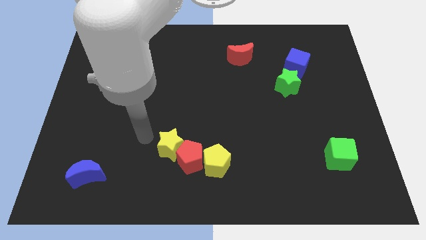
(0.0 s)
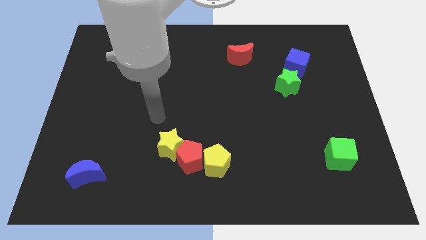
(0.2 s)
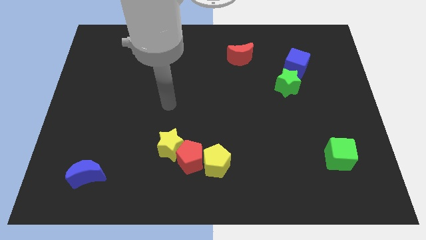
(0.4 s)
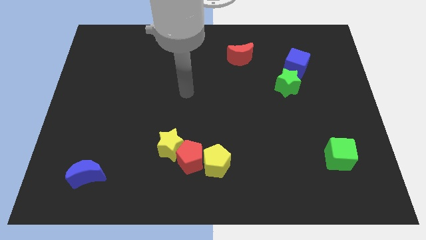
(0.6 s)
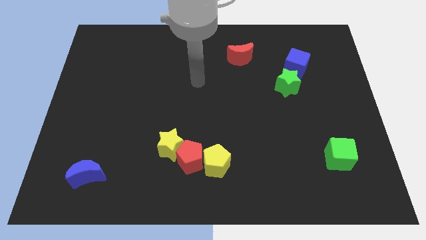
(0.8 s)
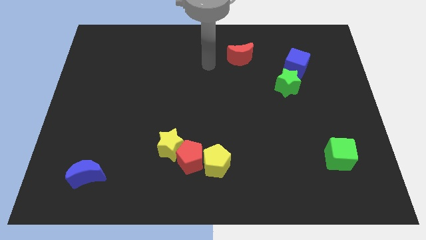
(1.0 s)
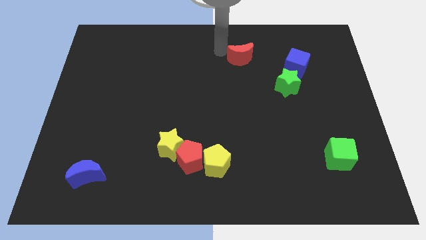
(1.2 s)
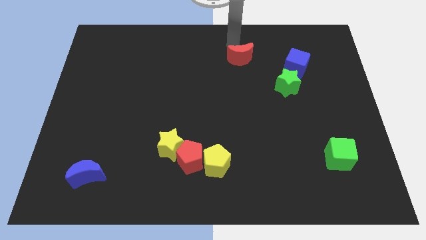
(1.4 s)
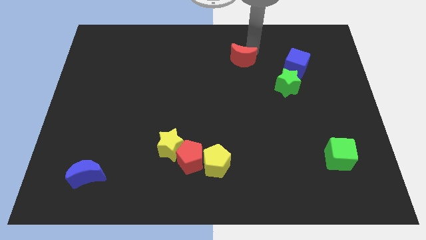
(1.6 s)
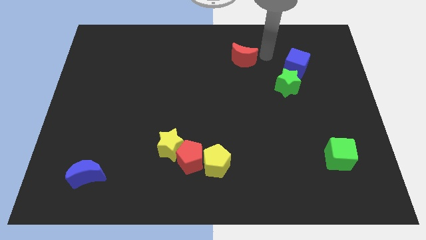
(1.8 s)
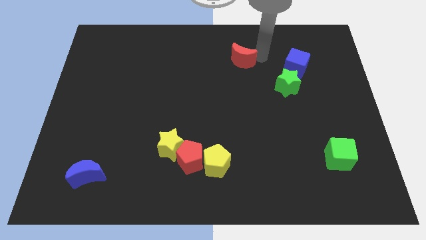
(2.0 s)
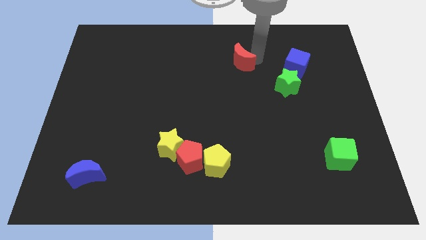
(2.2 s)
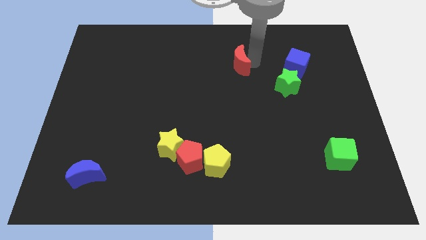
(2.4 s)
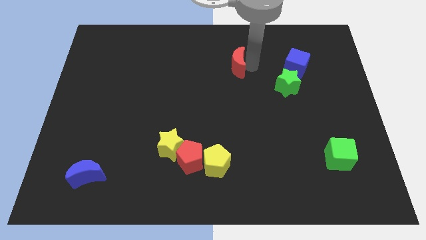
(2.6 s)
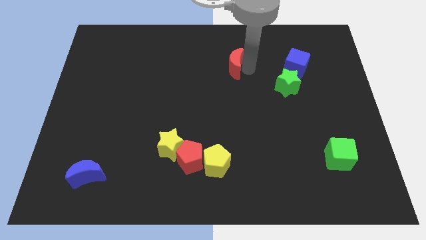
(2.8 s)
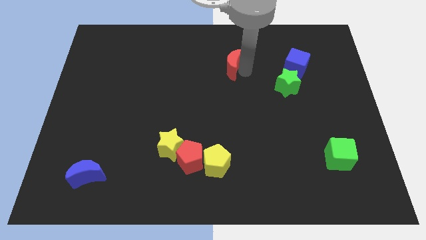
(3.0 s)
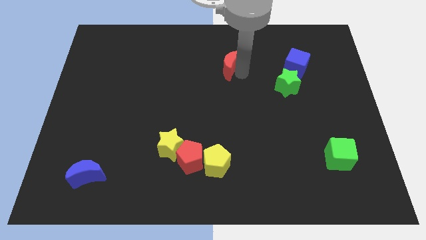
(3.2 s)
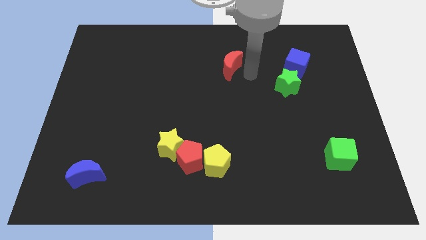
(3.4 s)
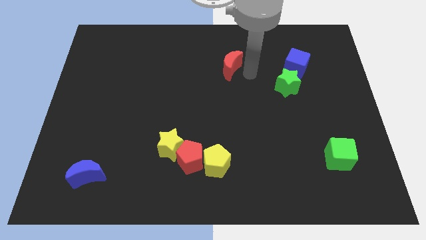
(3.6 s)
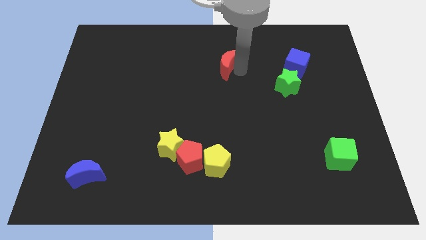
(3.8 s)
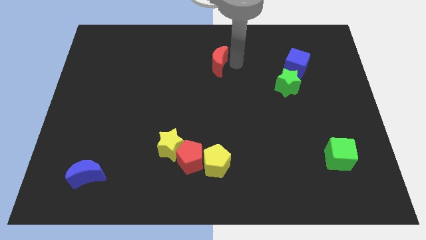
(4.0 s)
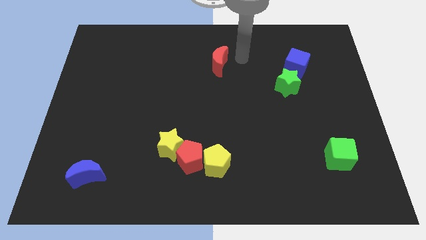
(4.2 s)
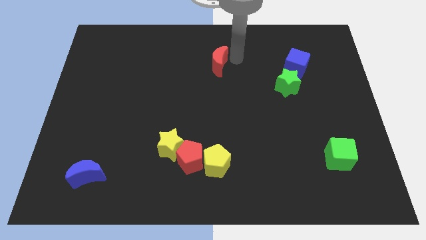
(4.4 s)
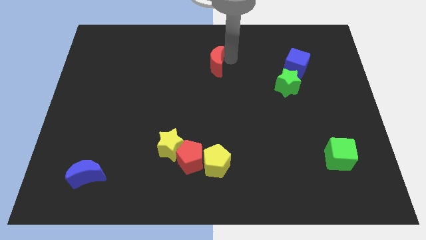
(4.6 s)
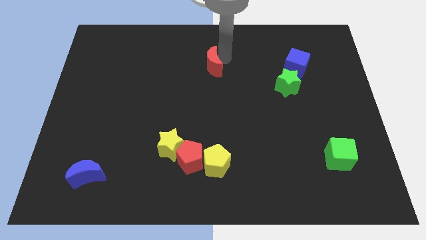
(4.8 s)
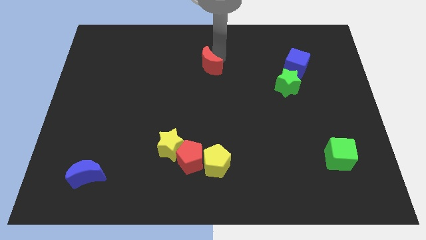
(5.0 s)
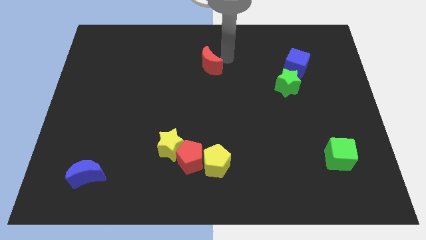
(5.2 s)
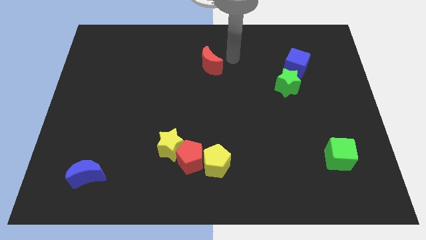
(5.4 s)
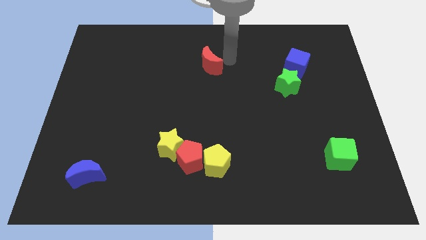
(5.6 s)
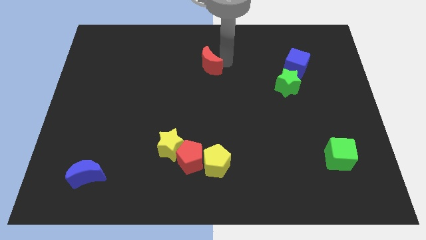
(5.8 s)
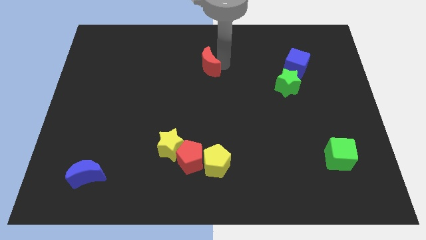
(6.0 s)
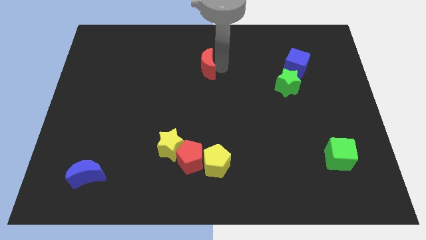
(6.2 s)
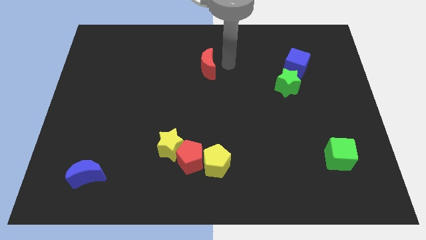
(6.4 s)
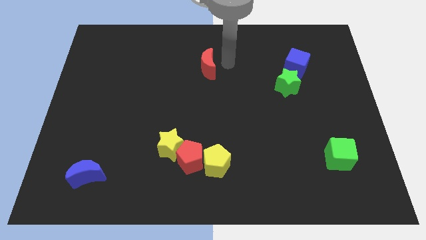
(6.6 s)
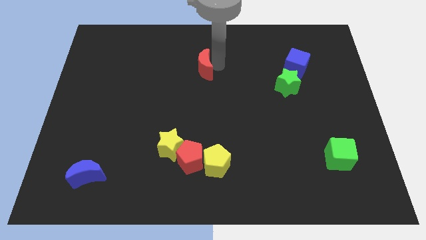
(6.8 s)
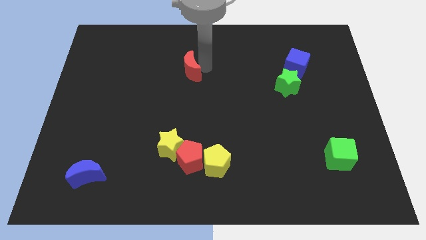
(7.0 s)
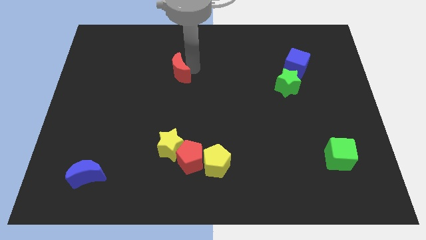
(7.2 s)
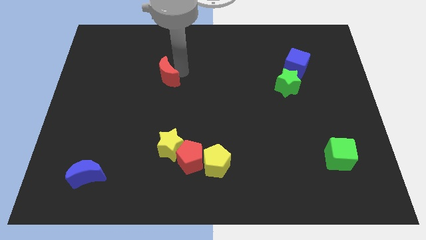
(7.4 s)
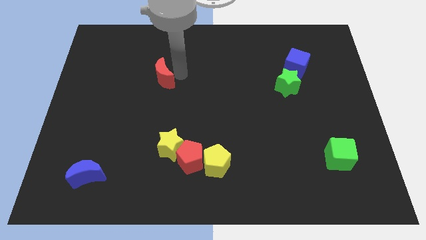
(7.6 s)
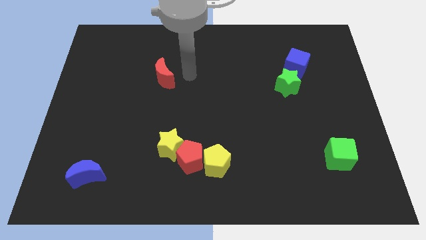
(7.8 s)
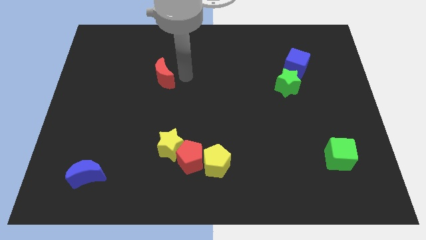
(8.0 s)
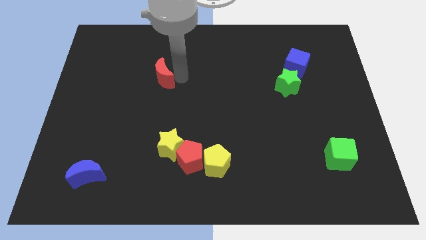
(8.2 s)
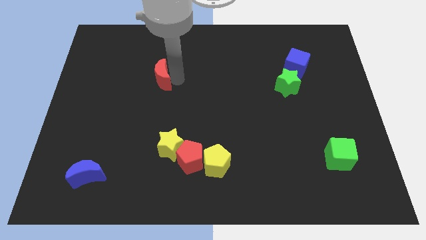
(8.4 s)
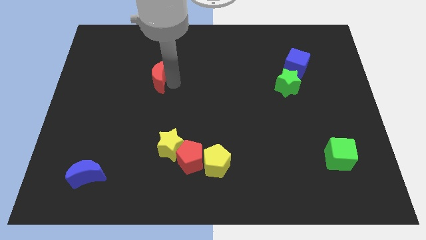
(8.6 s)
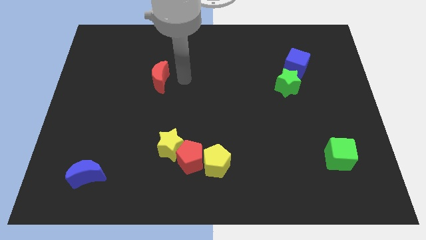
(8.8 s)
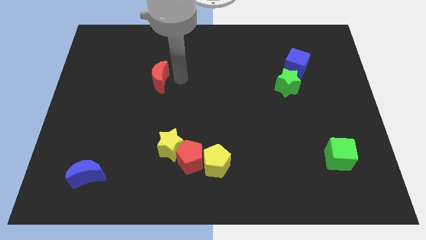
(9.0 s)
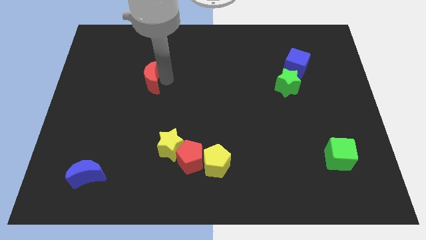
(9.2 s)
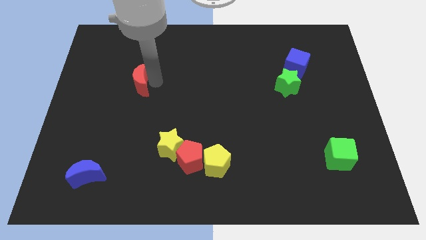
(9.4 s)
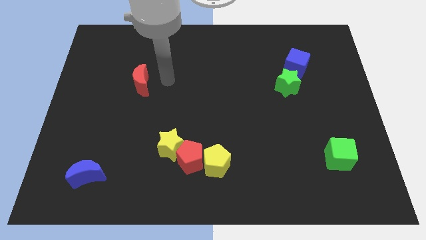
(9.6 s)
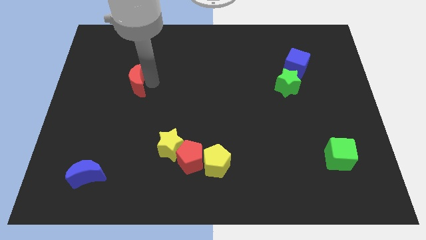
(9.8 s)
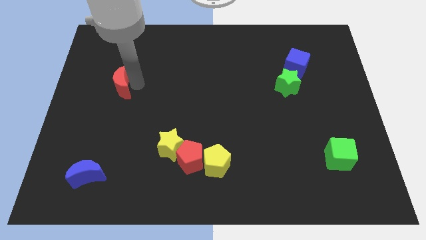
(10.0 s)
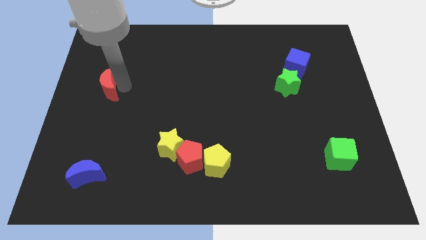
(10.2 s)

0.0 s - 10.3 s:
put the red moon to the center left

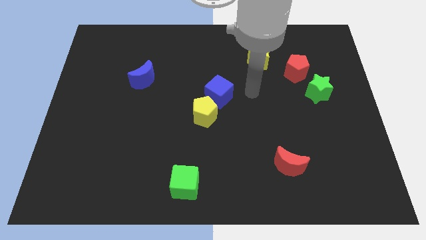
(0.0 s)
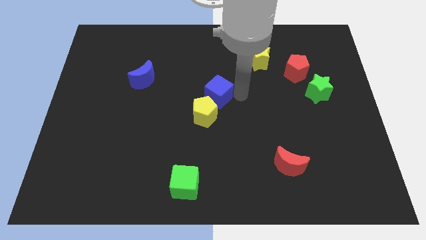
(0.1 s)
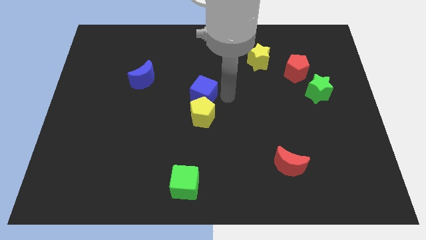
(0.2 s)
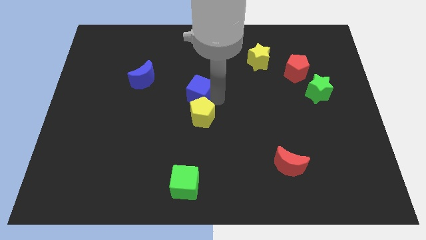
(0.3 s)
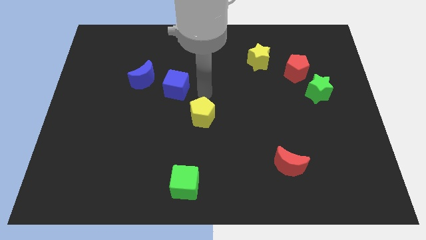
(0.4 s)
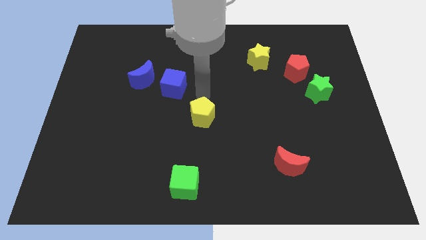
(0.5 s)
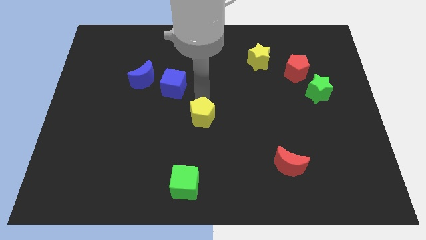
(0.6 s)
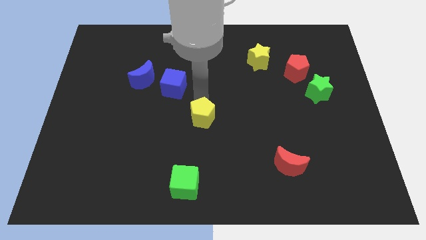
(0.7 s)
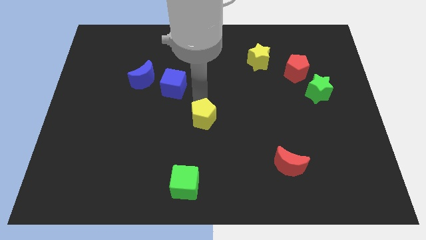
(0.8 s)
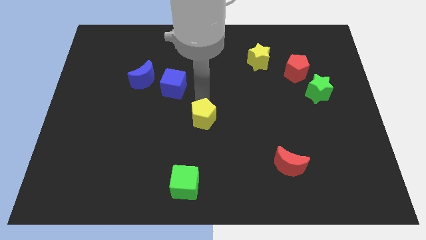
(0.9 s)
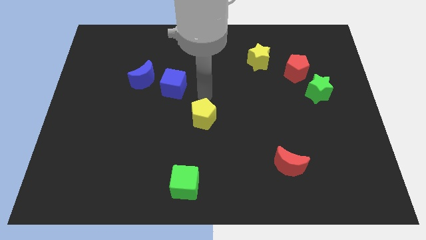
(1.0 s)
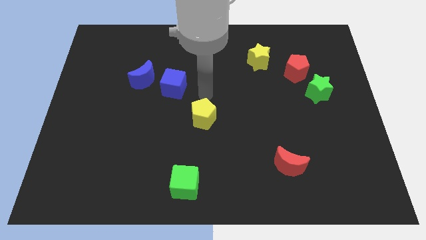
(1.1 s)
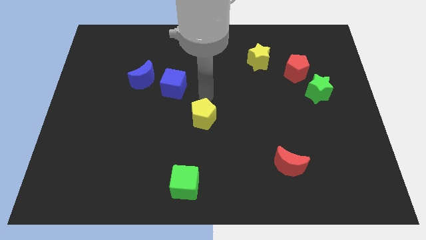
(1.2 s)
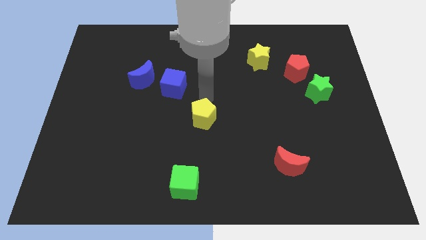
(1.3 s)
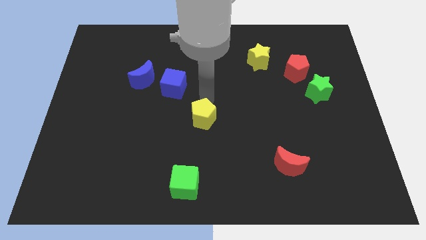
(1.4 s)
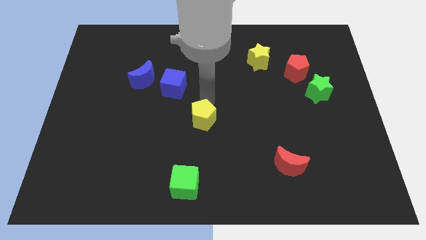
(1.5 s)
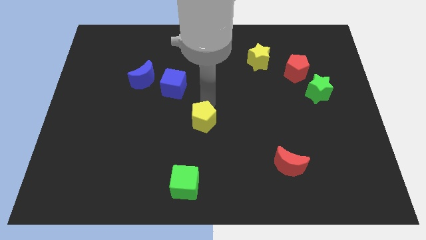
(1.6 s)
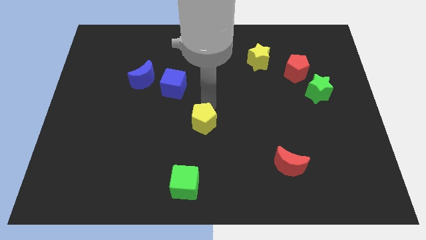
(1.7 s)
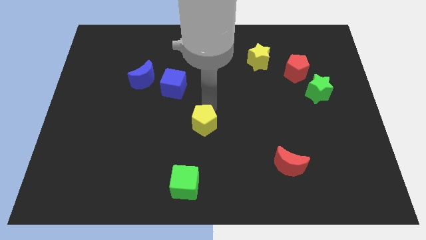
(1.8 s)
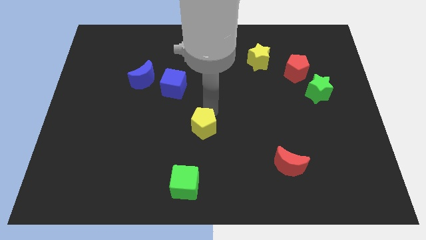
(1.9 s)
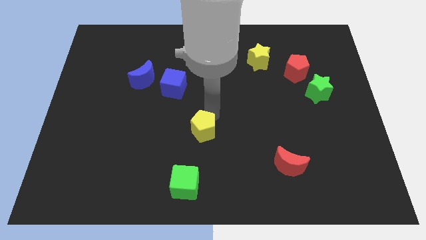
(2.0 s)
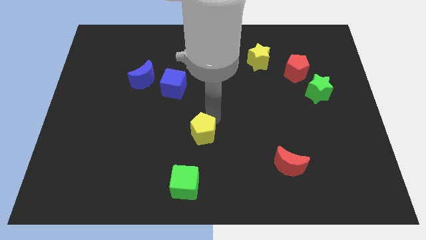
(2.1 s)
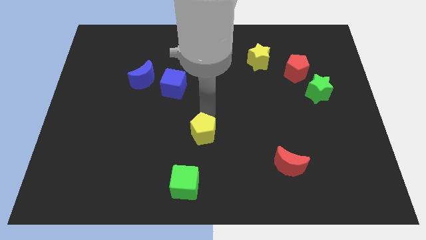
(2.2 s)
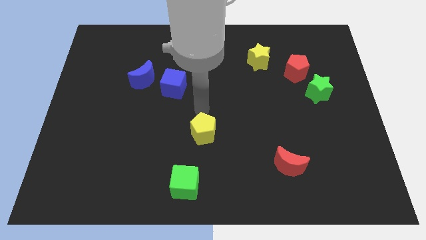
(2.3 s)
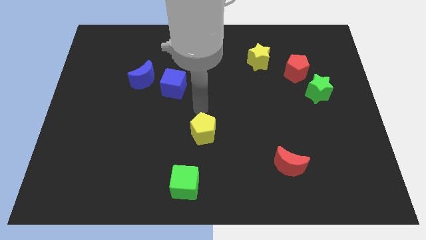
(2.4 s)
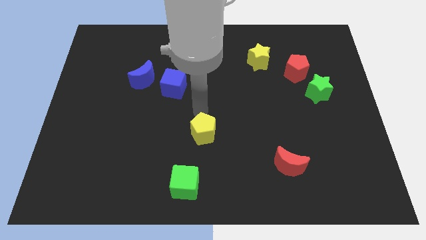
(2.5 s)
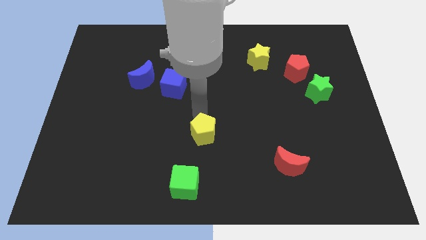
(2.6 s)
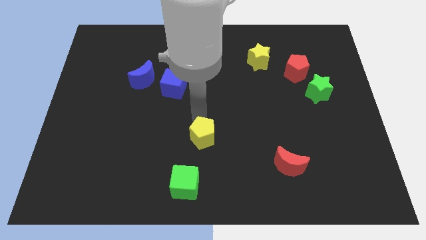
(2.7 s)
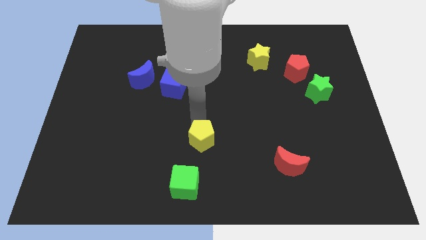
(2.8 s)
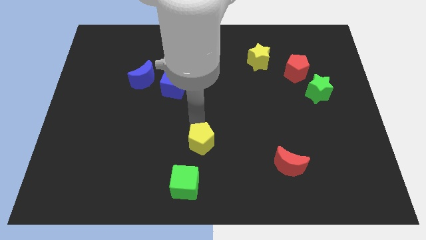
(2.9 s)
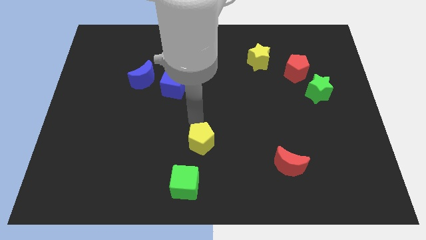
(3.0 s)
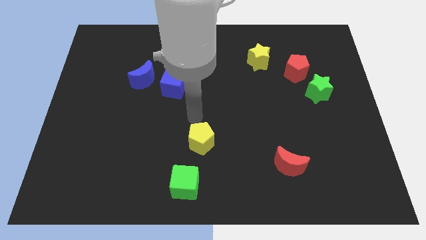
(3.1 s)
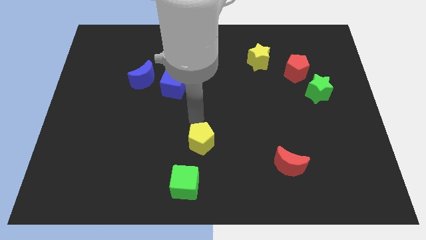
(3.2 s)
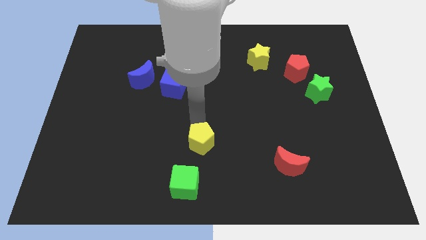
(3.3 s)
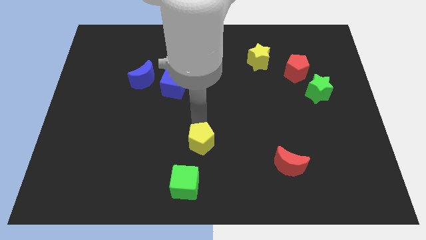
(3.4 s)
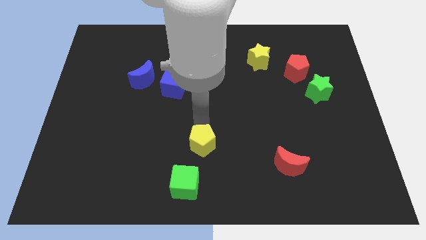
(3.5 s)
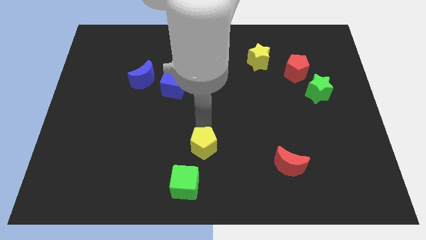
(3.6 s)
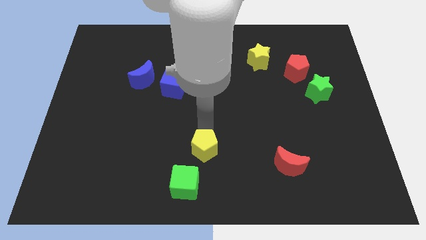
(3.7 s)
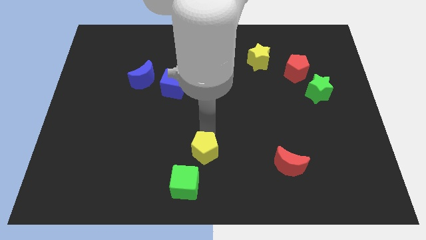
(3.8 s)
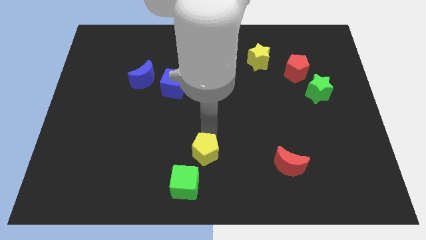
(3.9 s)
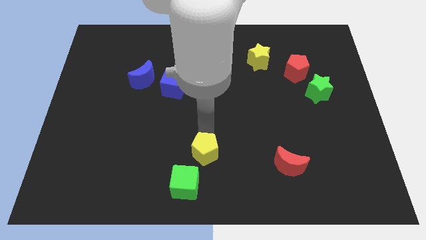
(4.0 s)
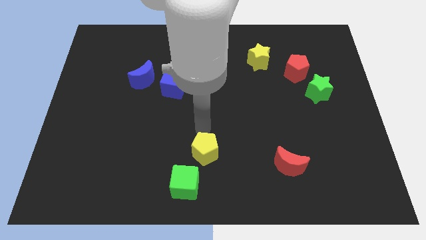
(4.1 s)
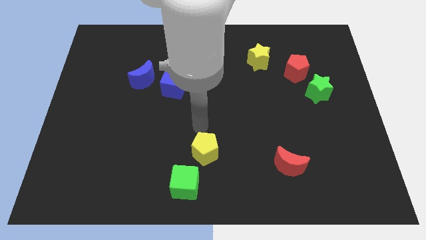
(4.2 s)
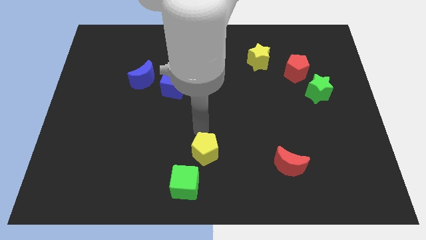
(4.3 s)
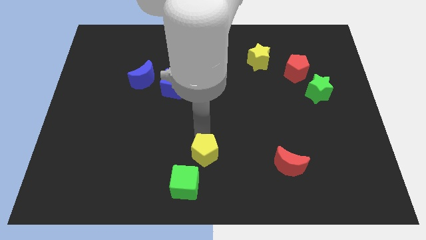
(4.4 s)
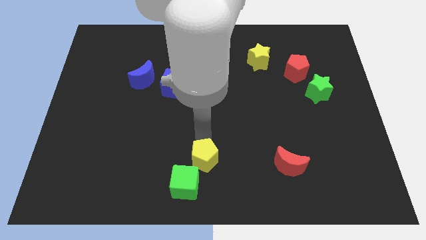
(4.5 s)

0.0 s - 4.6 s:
push the yellow pentagon to the bottom side
